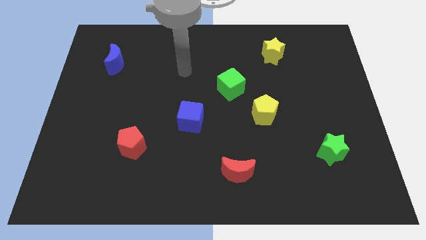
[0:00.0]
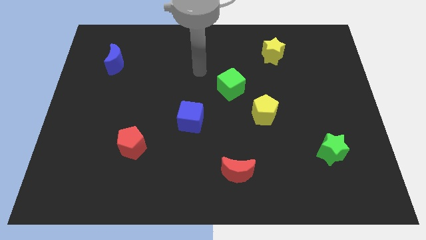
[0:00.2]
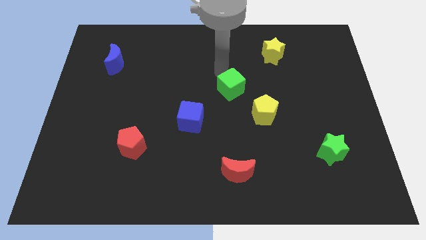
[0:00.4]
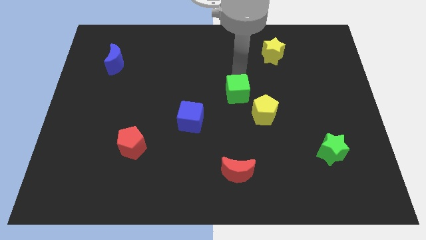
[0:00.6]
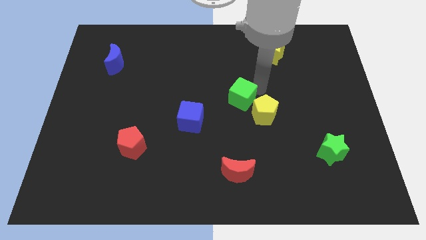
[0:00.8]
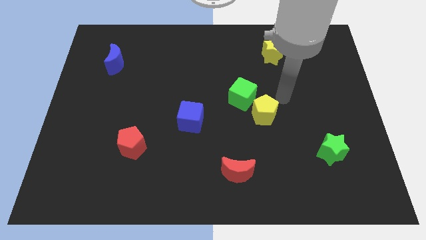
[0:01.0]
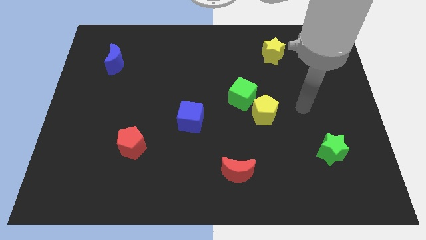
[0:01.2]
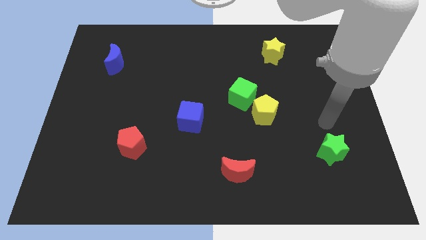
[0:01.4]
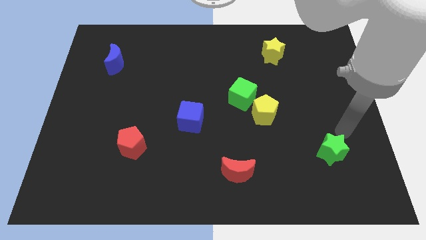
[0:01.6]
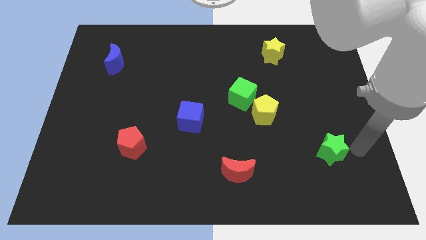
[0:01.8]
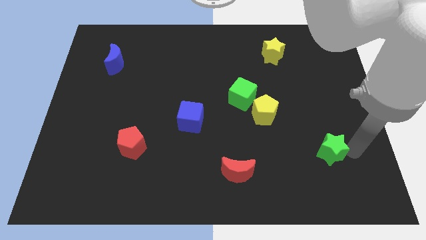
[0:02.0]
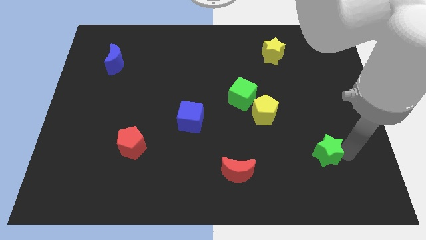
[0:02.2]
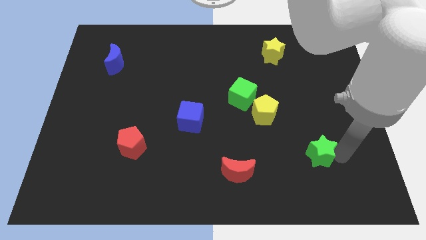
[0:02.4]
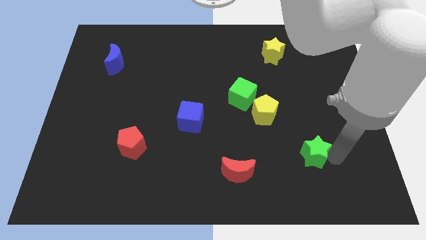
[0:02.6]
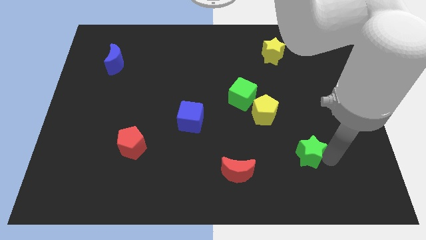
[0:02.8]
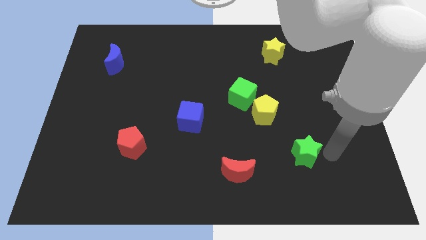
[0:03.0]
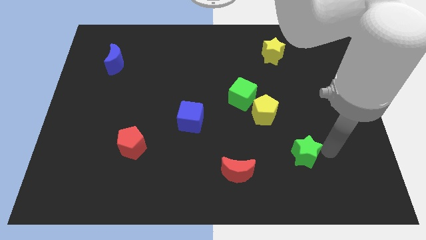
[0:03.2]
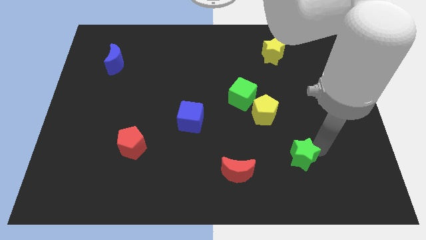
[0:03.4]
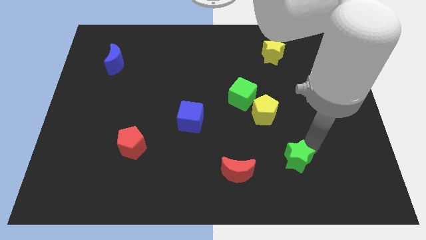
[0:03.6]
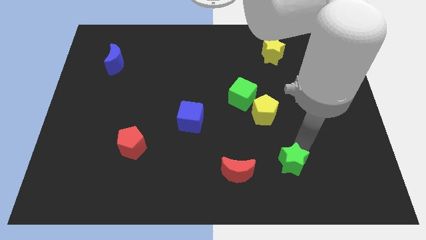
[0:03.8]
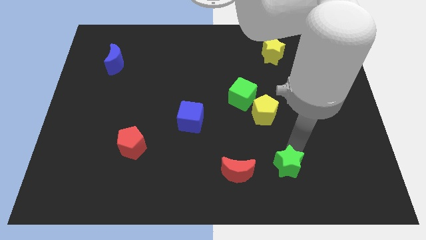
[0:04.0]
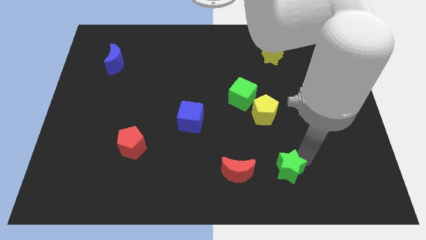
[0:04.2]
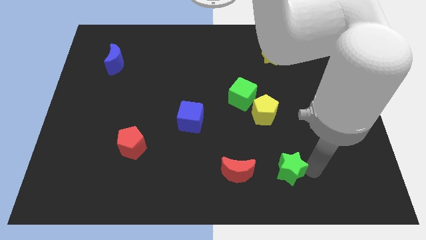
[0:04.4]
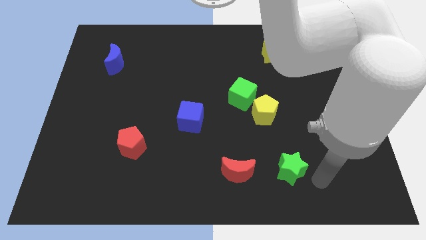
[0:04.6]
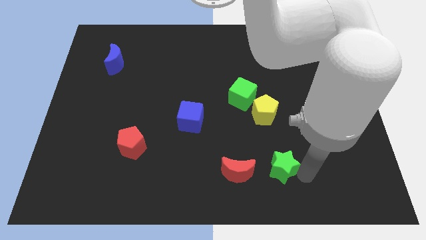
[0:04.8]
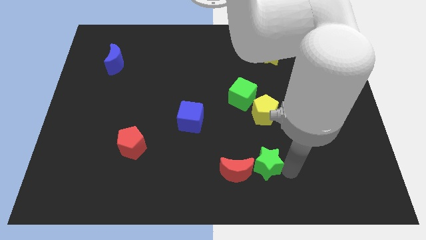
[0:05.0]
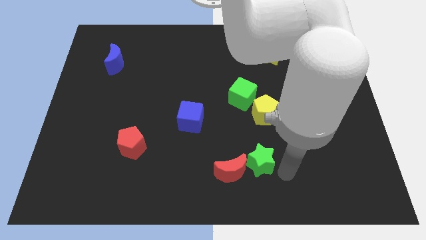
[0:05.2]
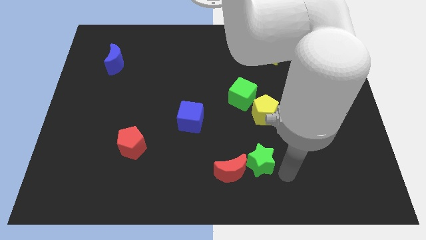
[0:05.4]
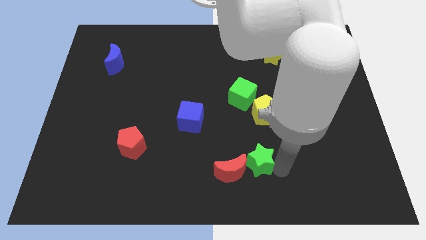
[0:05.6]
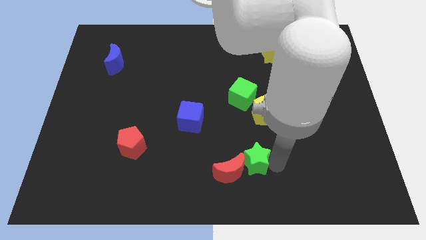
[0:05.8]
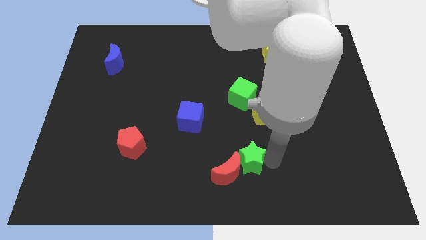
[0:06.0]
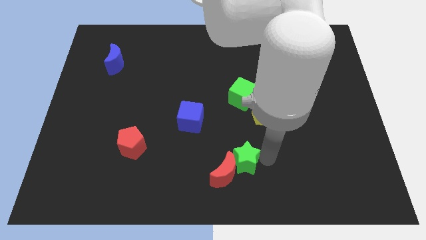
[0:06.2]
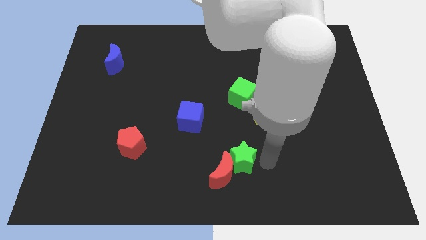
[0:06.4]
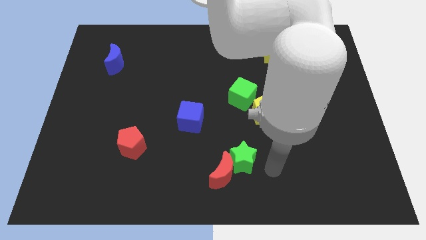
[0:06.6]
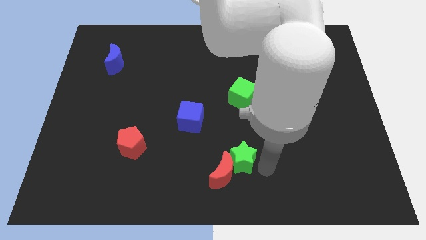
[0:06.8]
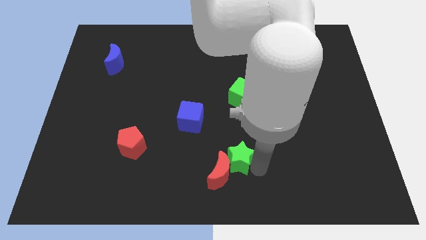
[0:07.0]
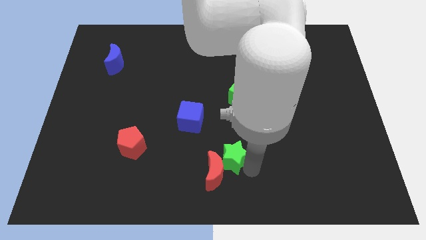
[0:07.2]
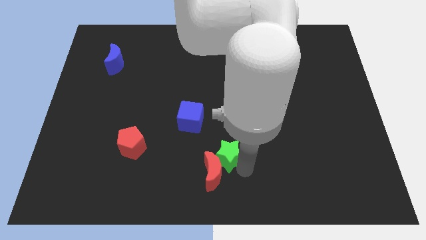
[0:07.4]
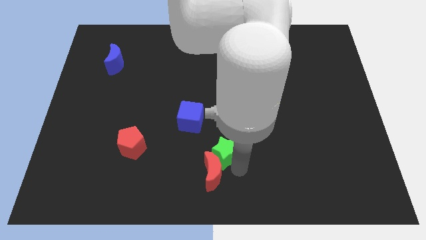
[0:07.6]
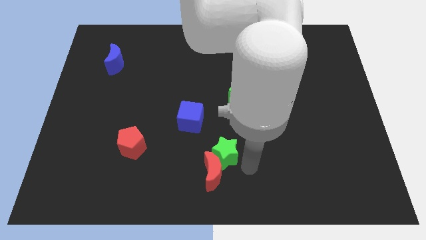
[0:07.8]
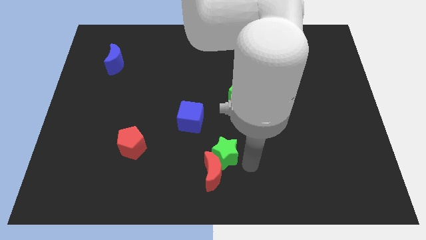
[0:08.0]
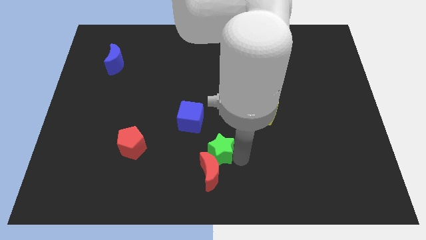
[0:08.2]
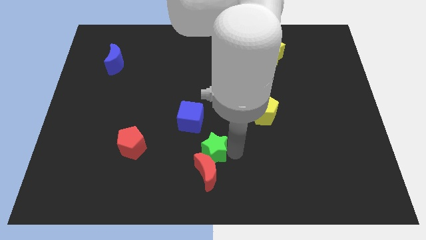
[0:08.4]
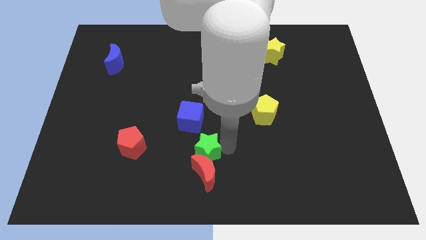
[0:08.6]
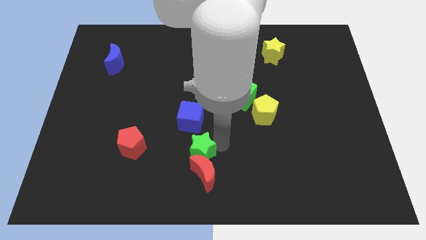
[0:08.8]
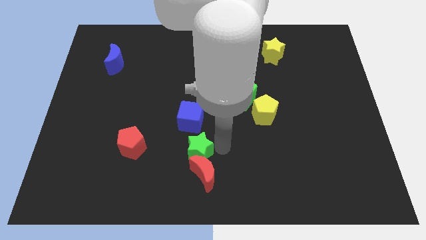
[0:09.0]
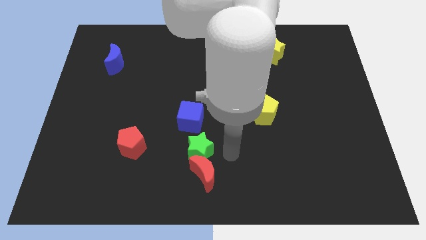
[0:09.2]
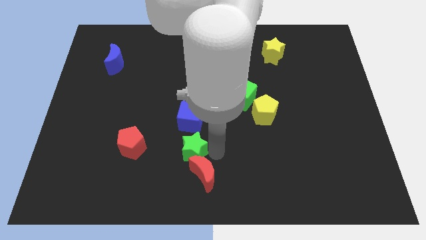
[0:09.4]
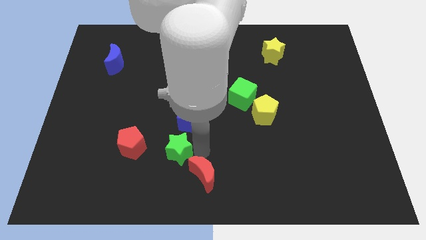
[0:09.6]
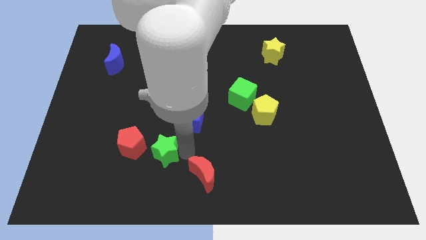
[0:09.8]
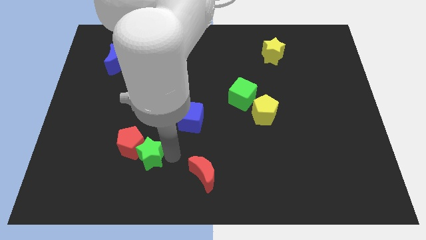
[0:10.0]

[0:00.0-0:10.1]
put the green star to the red pentagon

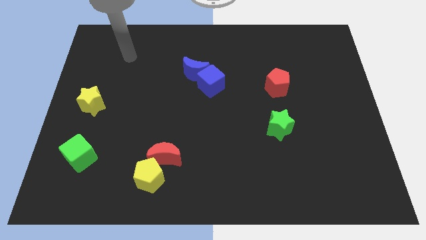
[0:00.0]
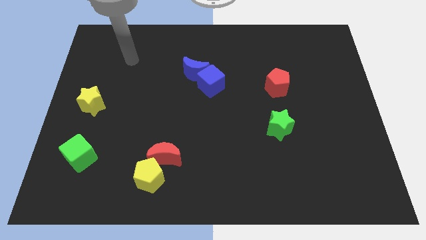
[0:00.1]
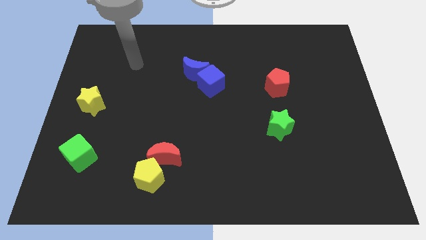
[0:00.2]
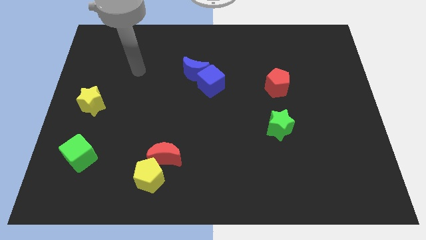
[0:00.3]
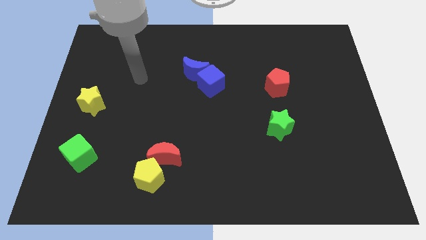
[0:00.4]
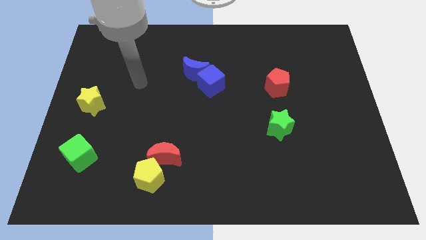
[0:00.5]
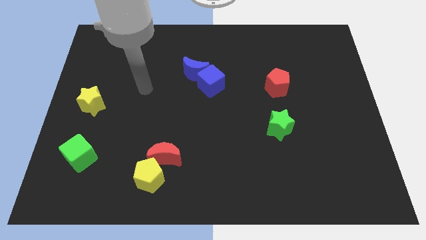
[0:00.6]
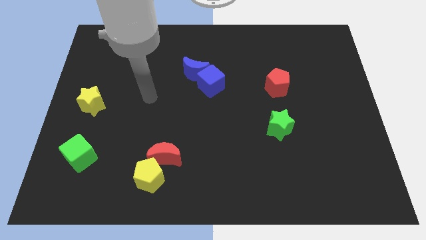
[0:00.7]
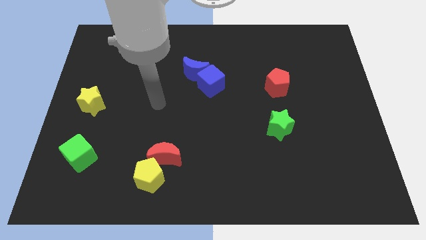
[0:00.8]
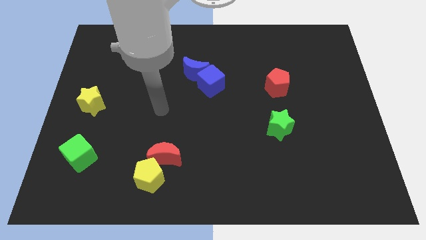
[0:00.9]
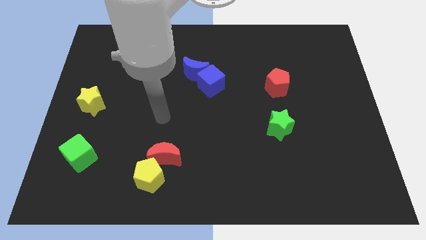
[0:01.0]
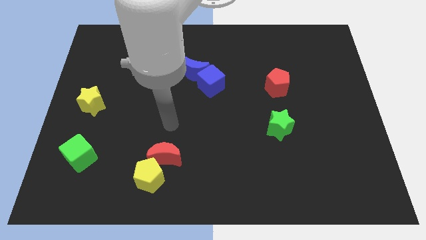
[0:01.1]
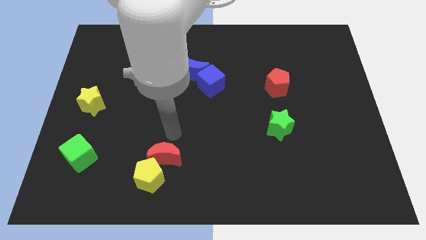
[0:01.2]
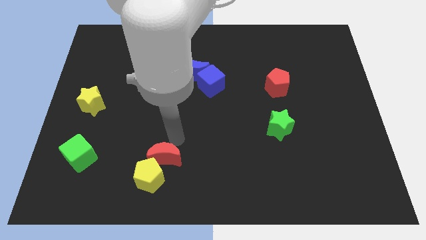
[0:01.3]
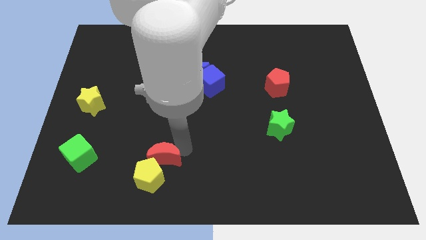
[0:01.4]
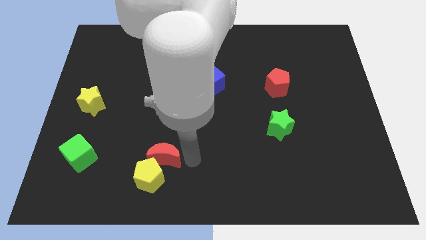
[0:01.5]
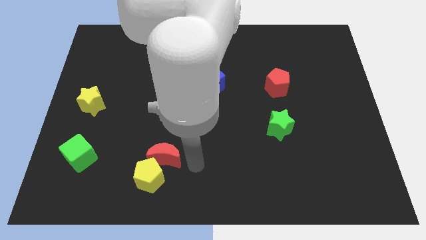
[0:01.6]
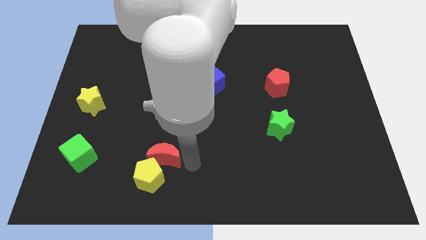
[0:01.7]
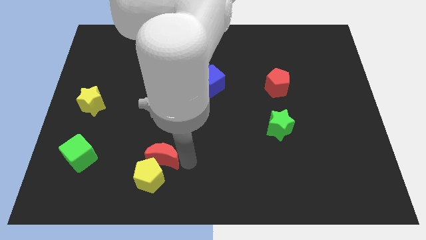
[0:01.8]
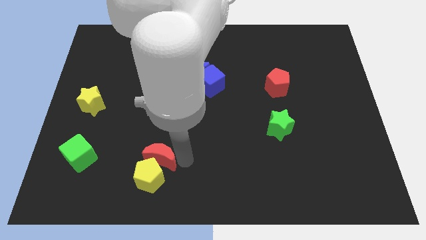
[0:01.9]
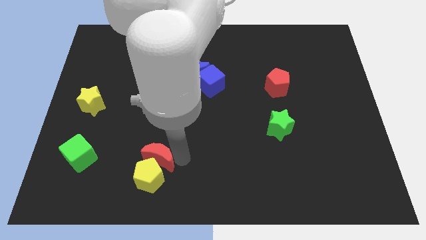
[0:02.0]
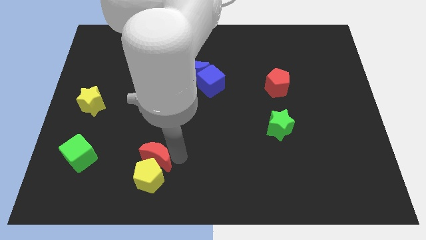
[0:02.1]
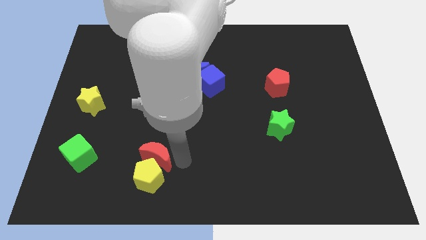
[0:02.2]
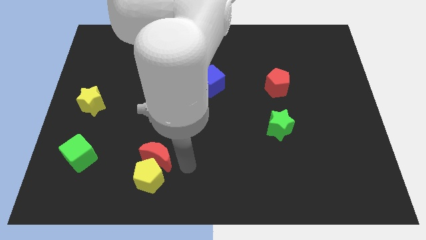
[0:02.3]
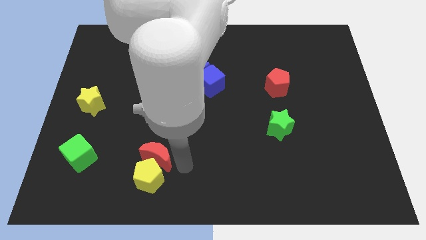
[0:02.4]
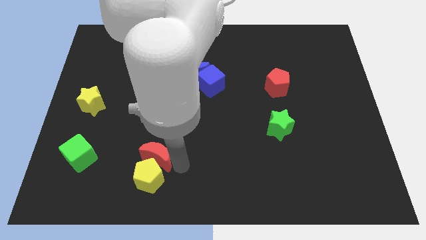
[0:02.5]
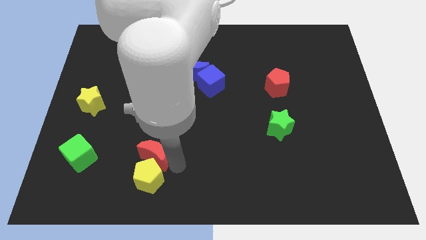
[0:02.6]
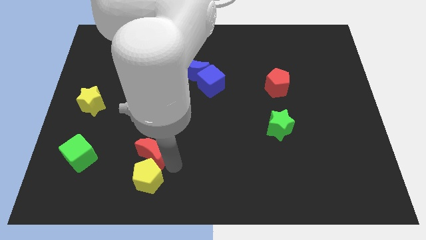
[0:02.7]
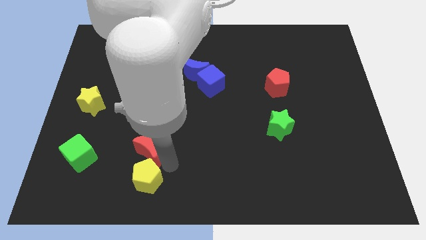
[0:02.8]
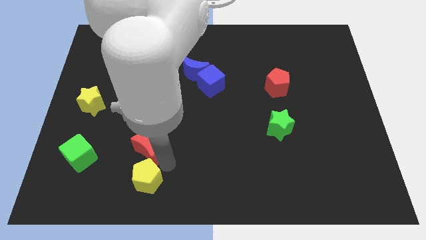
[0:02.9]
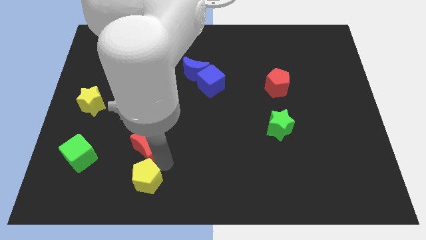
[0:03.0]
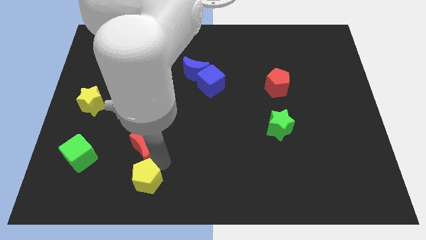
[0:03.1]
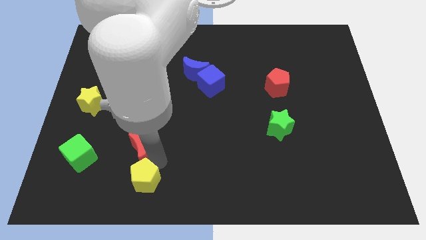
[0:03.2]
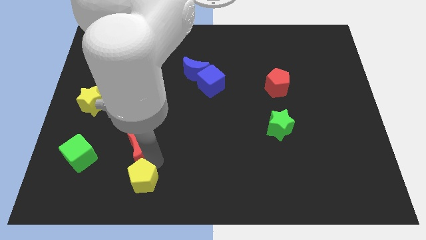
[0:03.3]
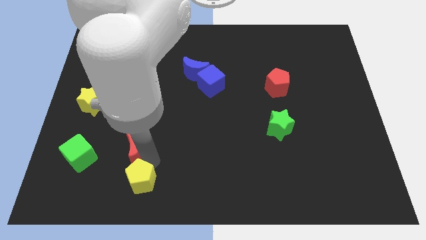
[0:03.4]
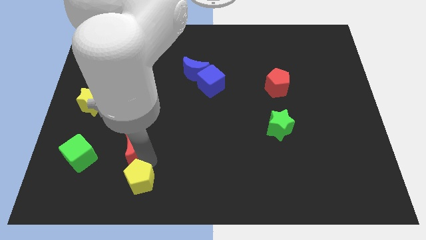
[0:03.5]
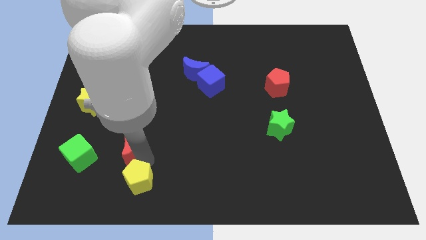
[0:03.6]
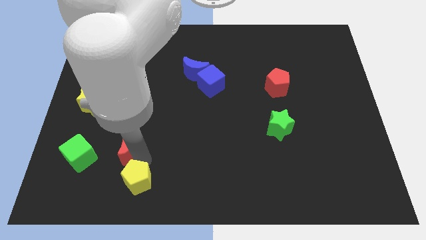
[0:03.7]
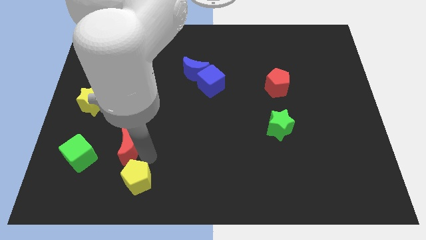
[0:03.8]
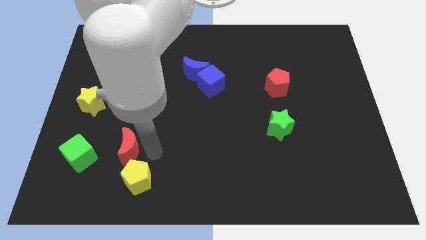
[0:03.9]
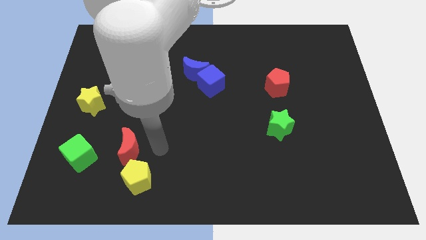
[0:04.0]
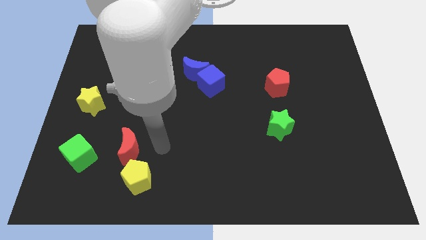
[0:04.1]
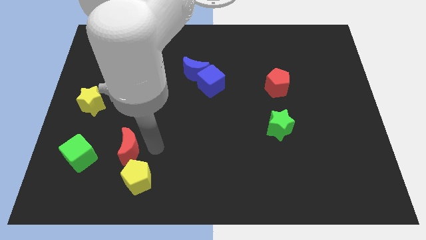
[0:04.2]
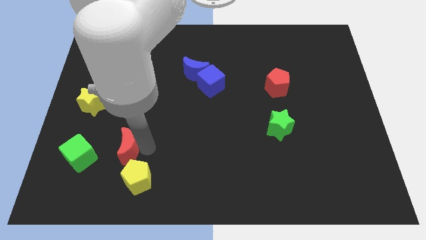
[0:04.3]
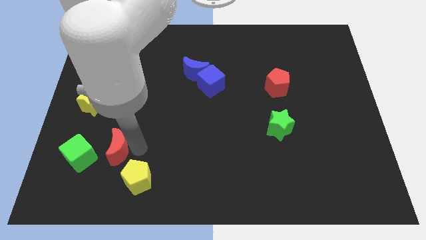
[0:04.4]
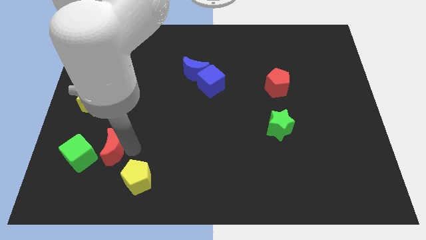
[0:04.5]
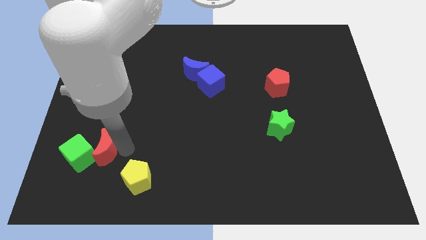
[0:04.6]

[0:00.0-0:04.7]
slide the red moon to the green cube
